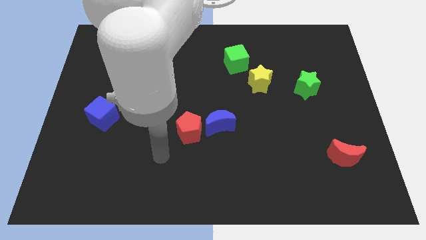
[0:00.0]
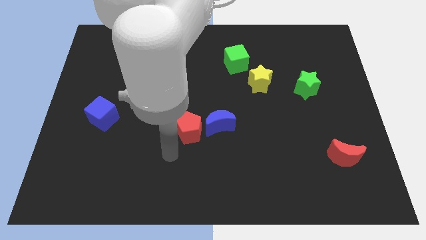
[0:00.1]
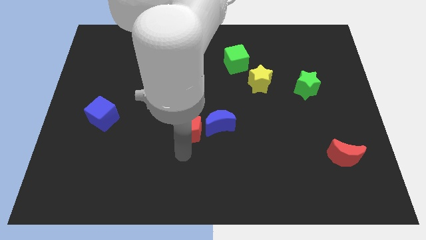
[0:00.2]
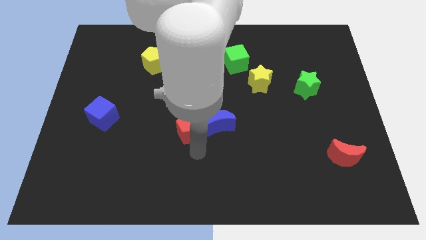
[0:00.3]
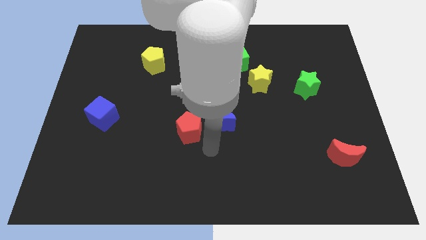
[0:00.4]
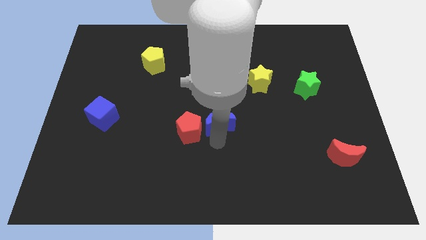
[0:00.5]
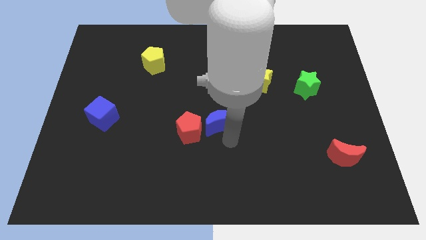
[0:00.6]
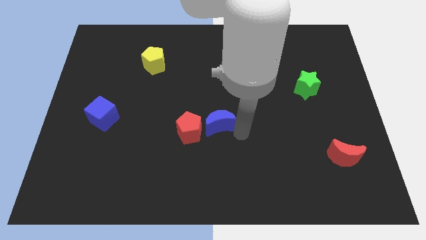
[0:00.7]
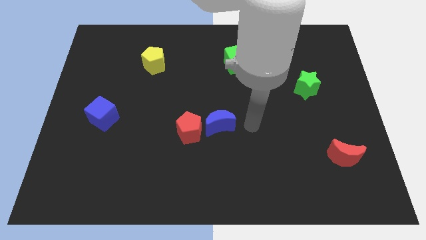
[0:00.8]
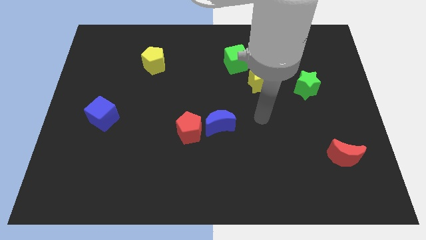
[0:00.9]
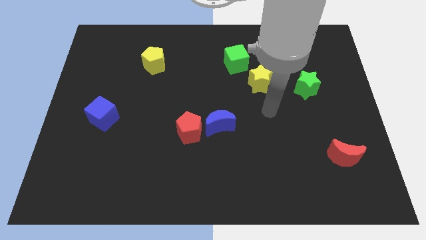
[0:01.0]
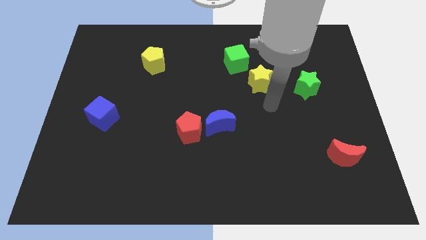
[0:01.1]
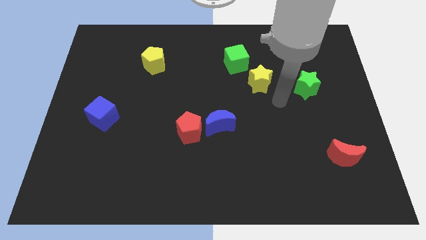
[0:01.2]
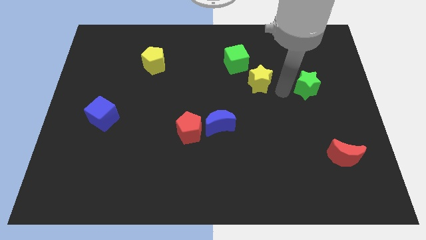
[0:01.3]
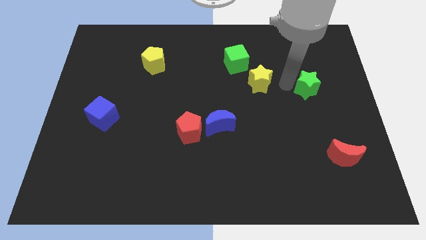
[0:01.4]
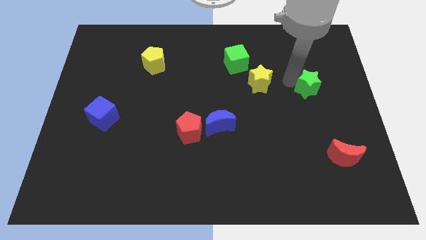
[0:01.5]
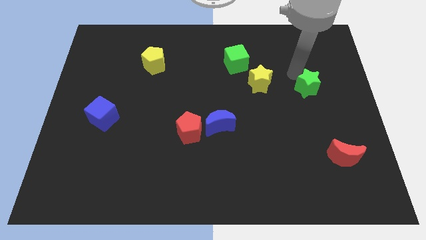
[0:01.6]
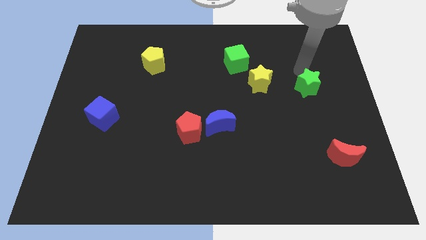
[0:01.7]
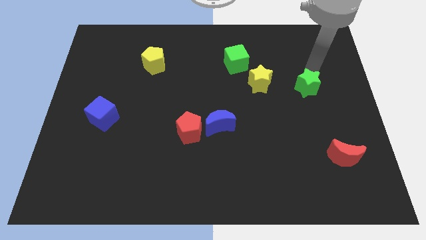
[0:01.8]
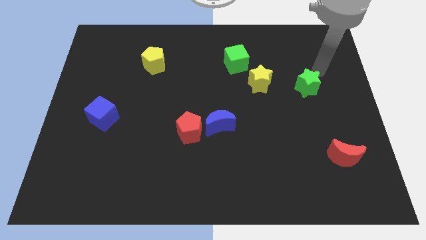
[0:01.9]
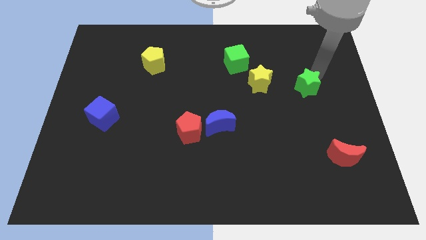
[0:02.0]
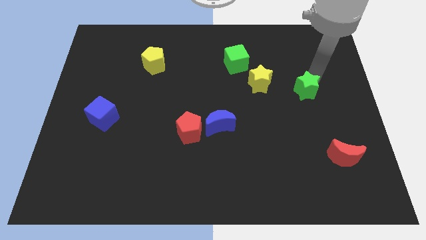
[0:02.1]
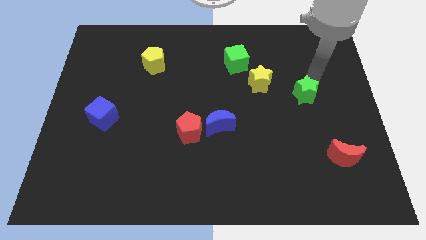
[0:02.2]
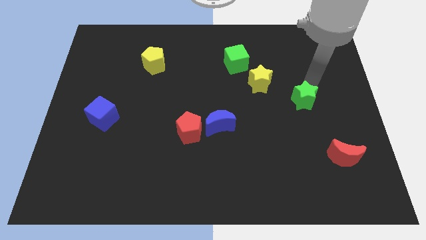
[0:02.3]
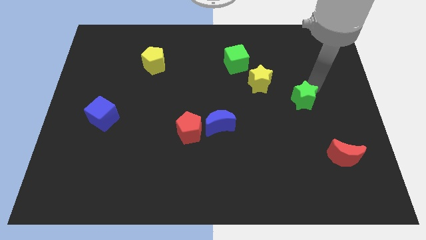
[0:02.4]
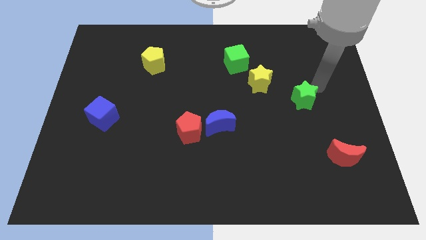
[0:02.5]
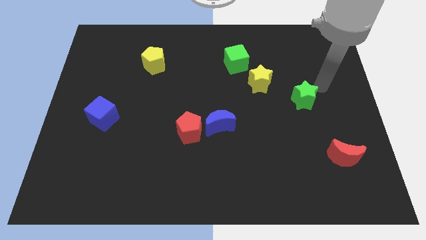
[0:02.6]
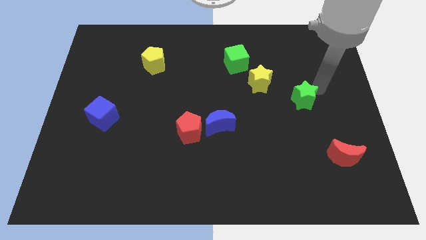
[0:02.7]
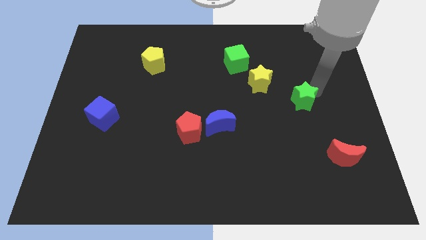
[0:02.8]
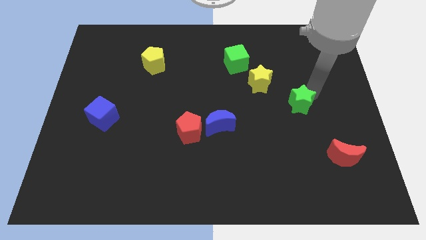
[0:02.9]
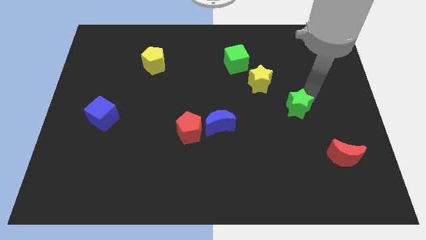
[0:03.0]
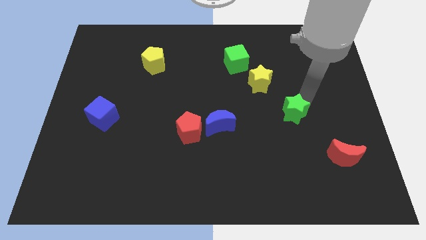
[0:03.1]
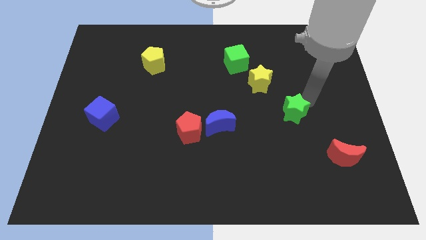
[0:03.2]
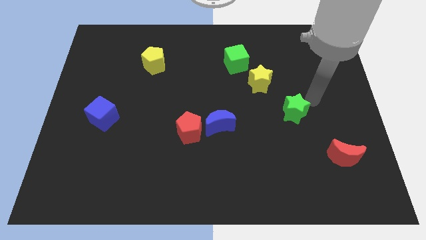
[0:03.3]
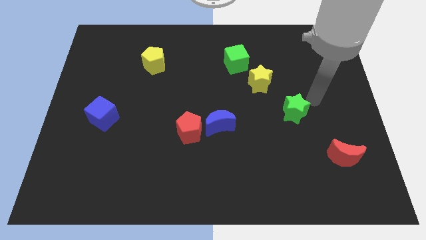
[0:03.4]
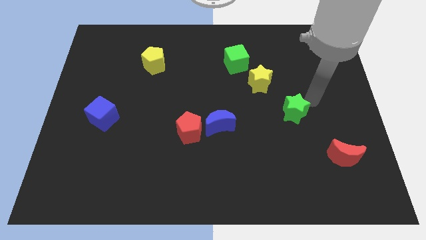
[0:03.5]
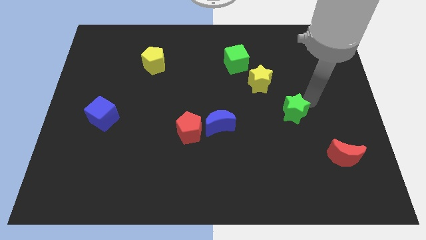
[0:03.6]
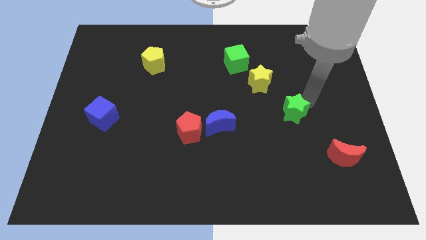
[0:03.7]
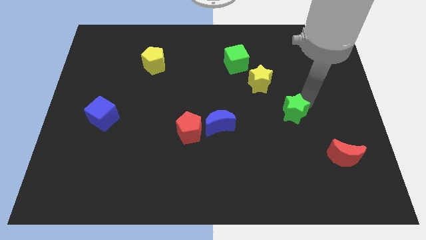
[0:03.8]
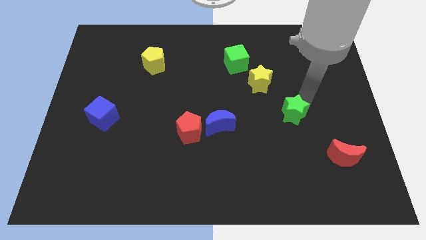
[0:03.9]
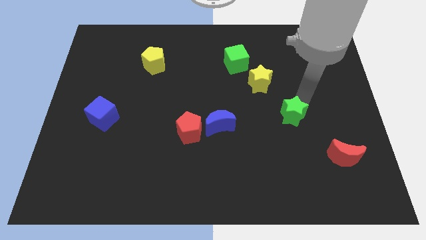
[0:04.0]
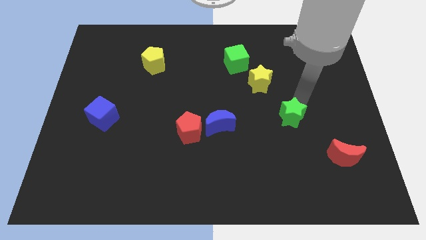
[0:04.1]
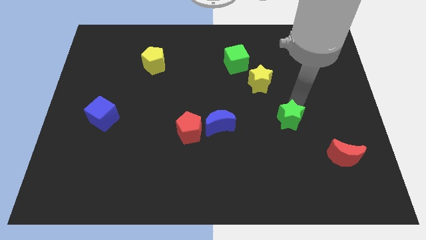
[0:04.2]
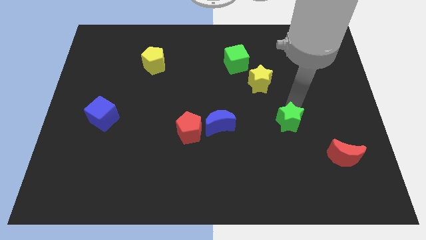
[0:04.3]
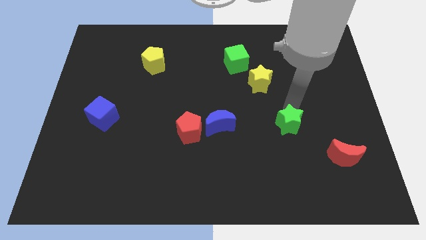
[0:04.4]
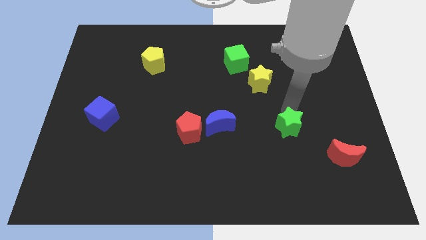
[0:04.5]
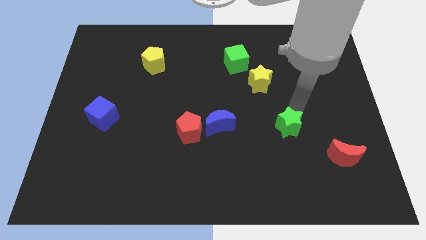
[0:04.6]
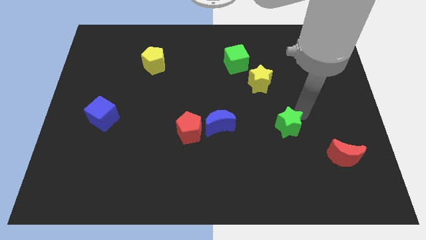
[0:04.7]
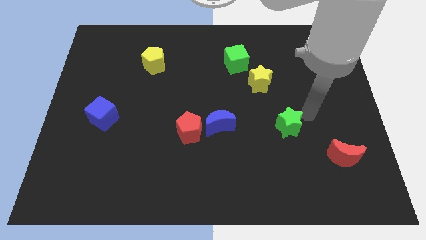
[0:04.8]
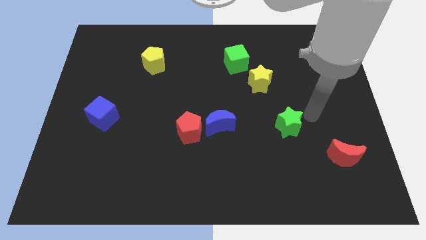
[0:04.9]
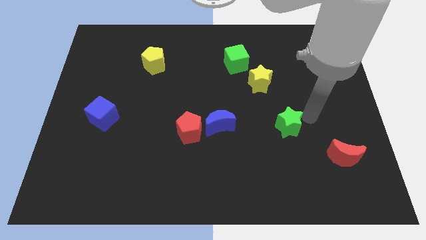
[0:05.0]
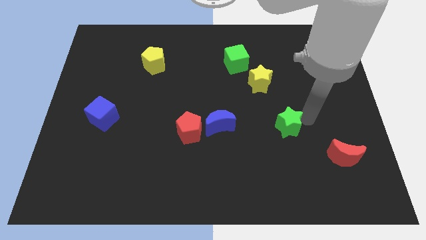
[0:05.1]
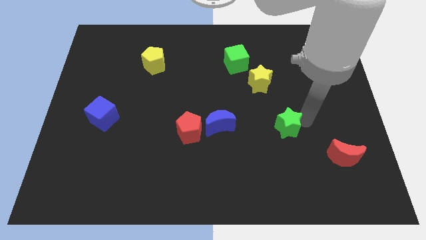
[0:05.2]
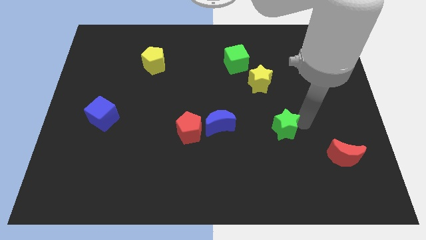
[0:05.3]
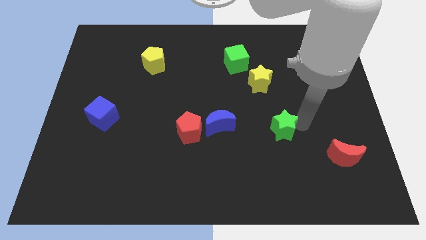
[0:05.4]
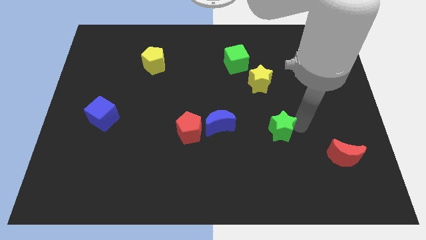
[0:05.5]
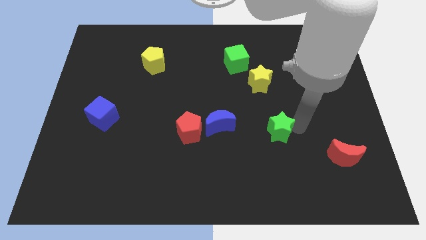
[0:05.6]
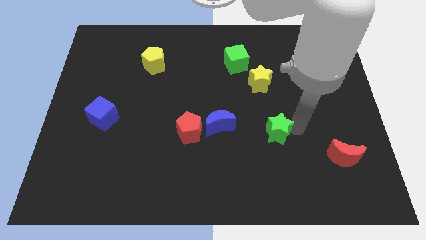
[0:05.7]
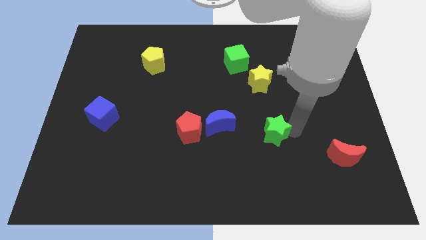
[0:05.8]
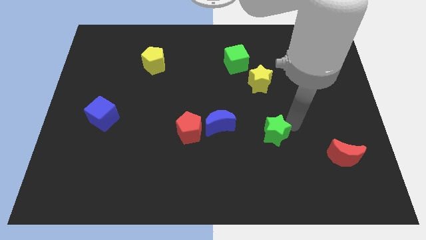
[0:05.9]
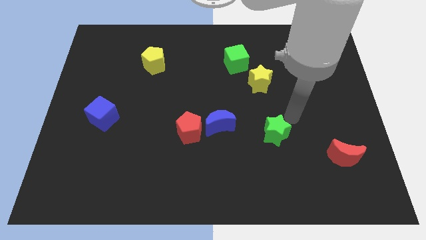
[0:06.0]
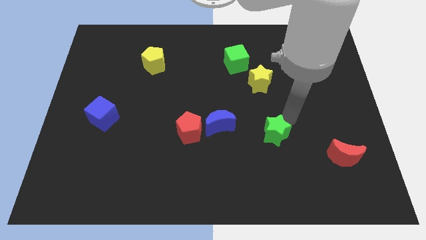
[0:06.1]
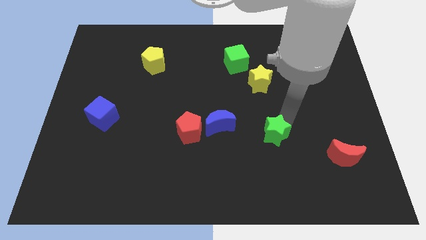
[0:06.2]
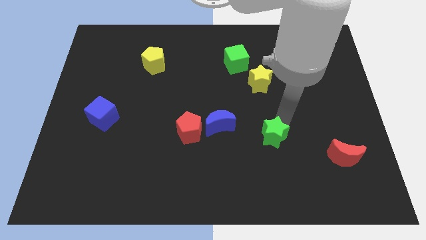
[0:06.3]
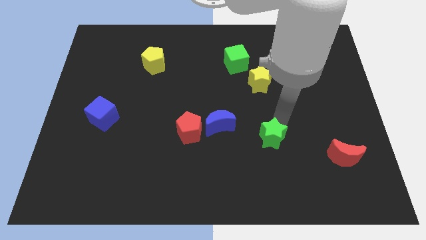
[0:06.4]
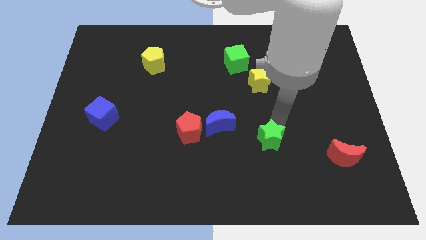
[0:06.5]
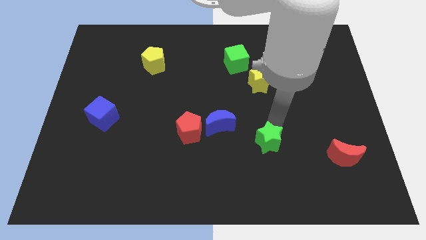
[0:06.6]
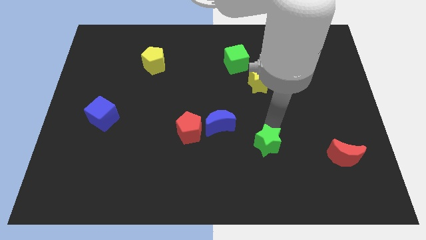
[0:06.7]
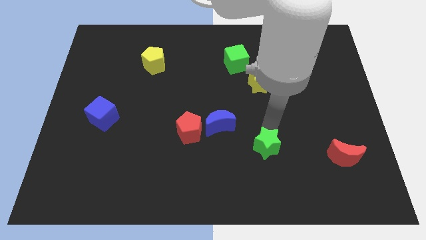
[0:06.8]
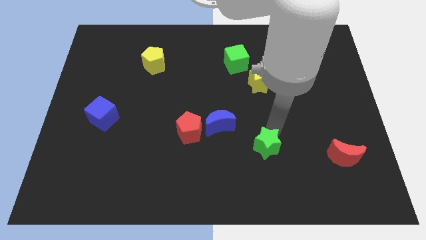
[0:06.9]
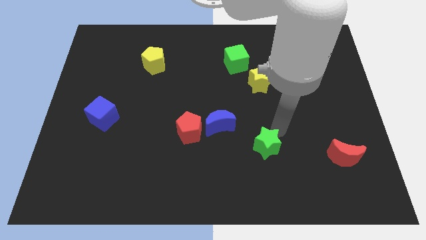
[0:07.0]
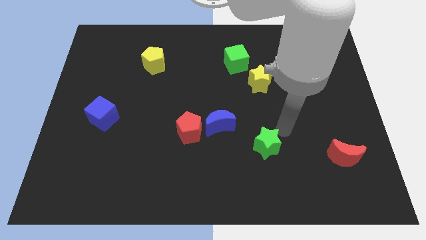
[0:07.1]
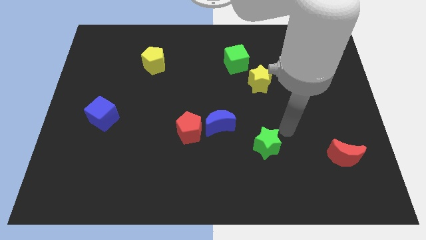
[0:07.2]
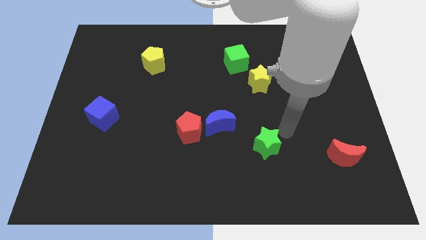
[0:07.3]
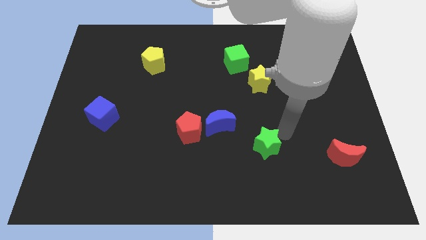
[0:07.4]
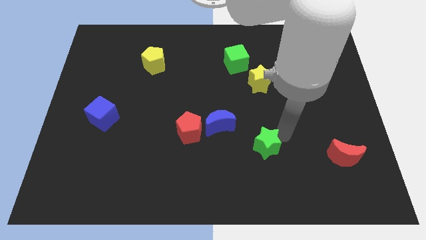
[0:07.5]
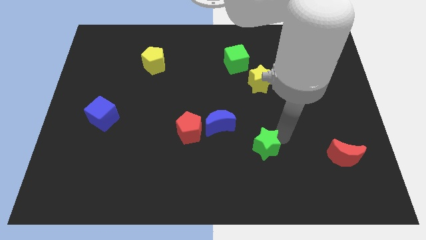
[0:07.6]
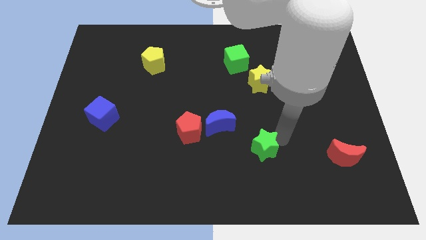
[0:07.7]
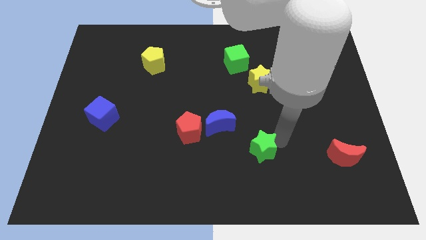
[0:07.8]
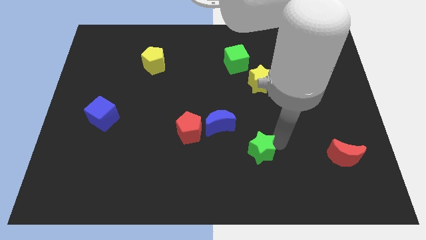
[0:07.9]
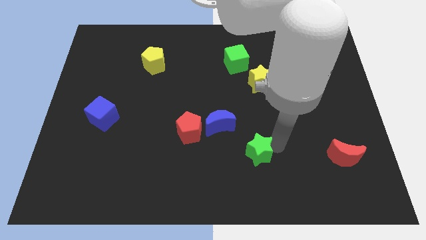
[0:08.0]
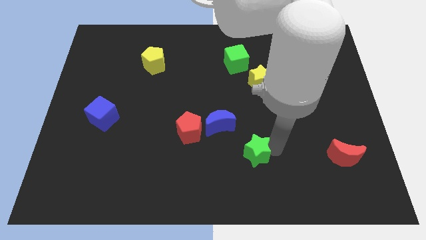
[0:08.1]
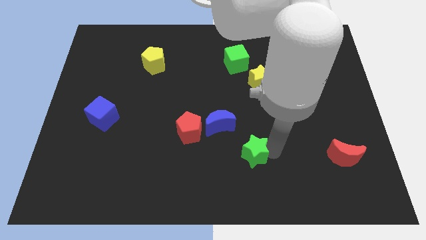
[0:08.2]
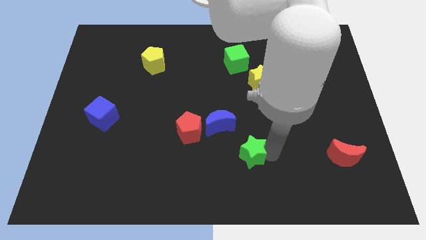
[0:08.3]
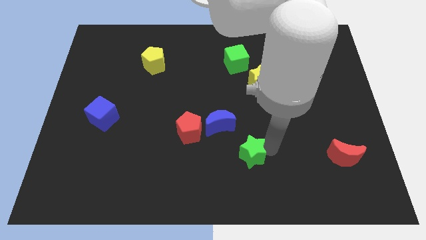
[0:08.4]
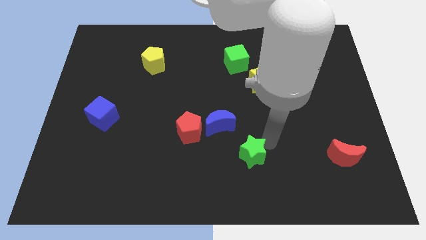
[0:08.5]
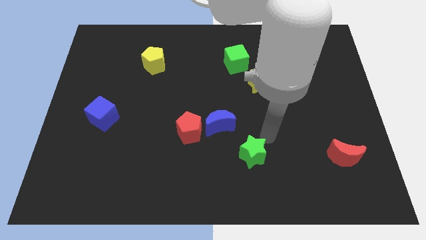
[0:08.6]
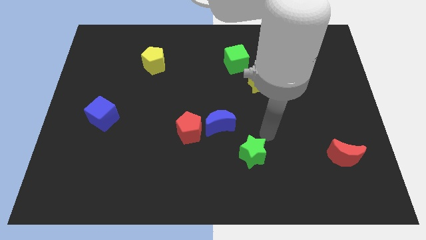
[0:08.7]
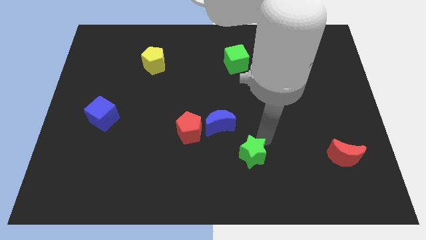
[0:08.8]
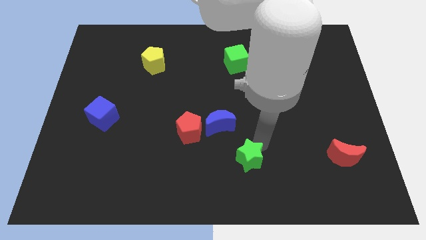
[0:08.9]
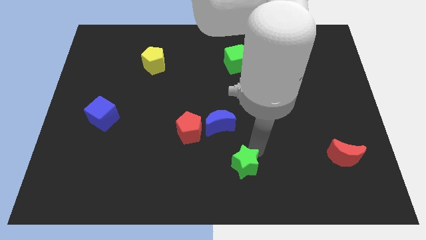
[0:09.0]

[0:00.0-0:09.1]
push the green star to the bottom
